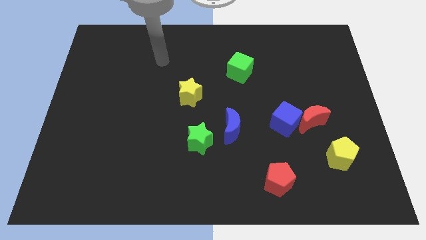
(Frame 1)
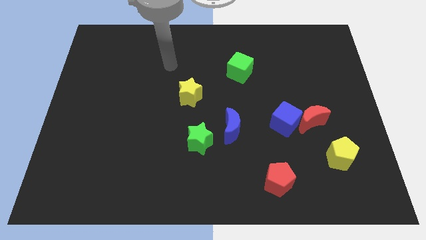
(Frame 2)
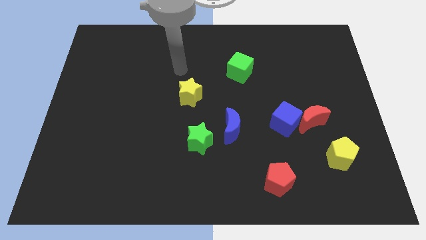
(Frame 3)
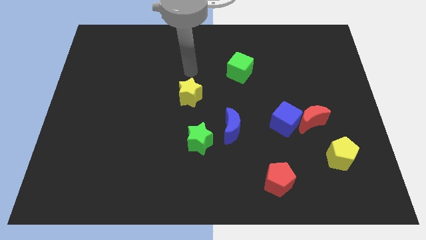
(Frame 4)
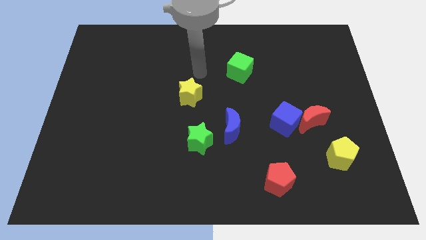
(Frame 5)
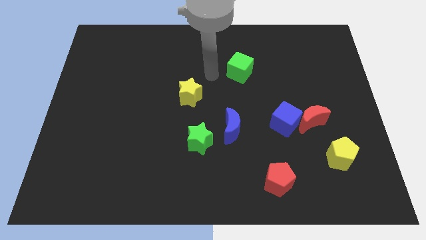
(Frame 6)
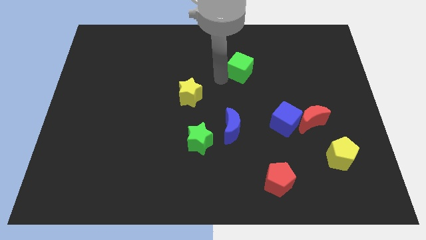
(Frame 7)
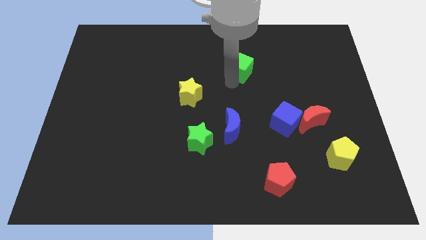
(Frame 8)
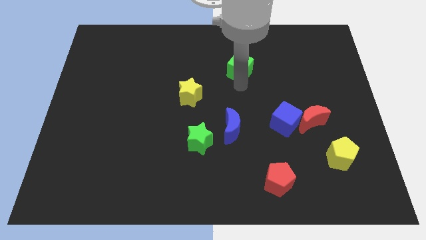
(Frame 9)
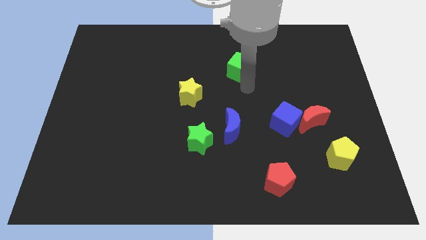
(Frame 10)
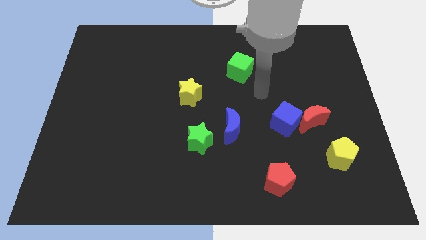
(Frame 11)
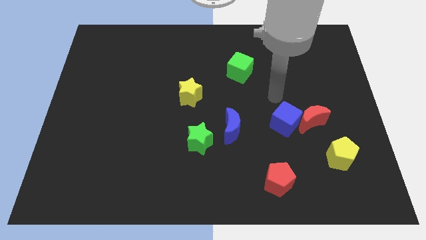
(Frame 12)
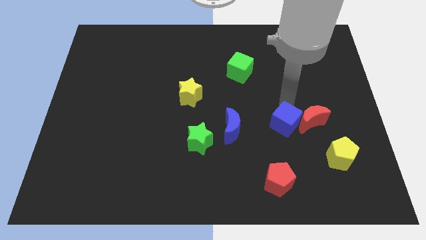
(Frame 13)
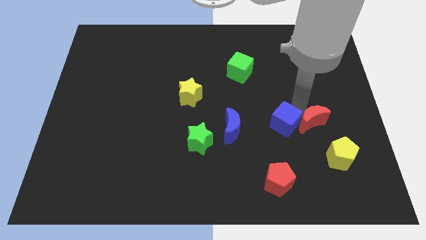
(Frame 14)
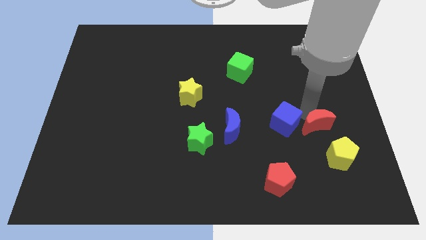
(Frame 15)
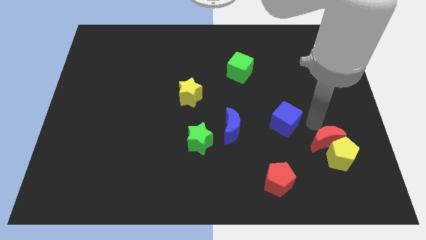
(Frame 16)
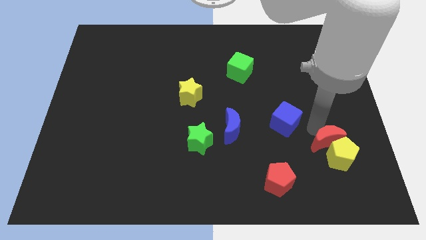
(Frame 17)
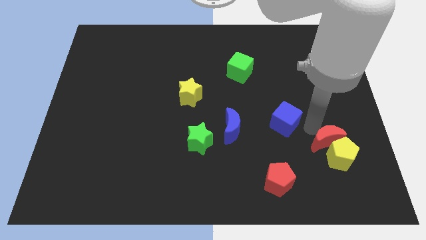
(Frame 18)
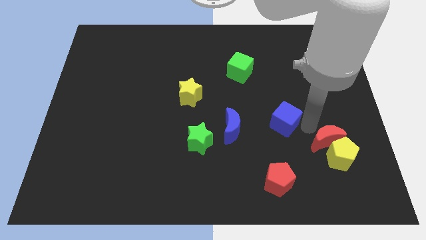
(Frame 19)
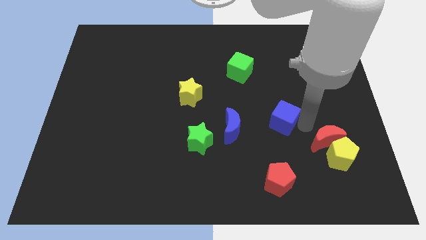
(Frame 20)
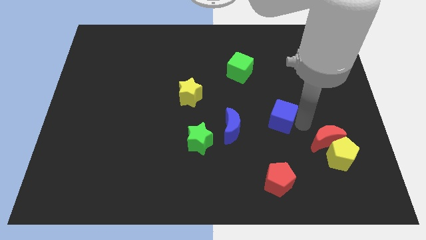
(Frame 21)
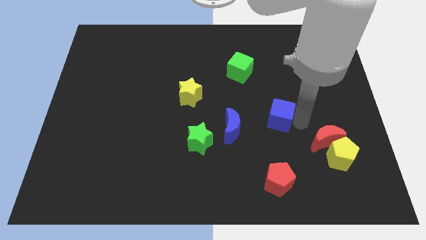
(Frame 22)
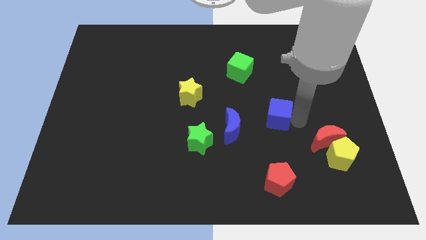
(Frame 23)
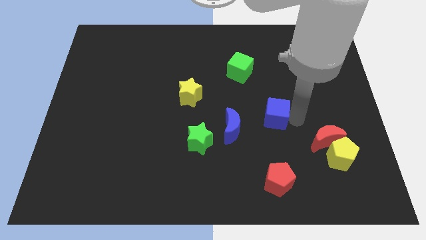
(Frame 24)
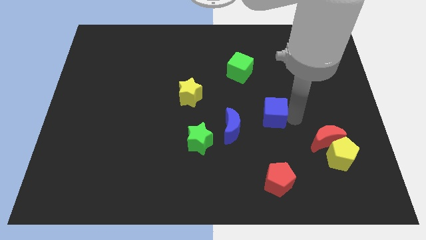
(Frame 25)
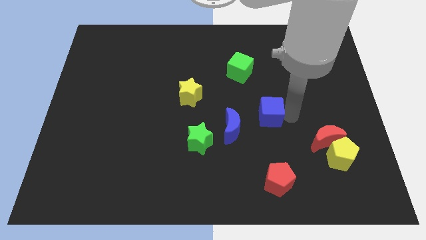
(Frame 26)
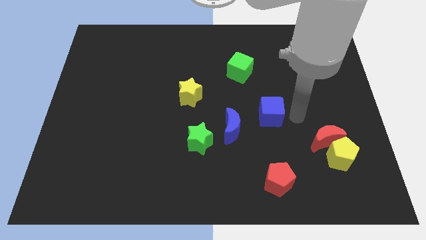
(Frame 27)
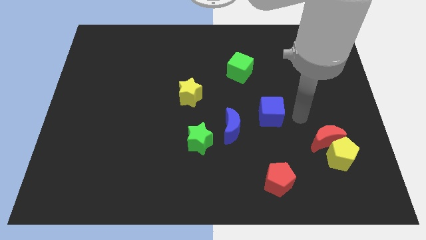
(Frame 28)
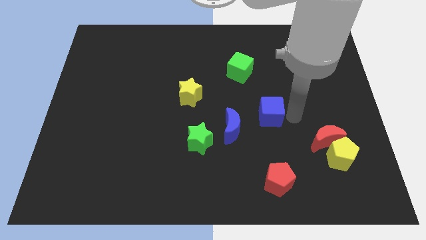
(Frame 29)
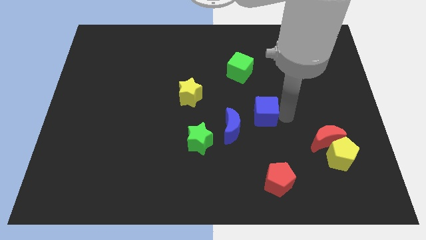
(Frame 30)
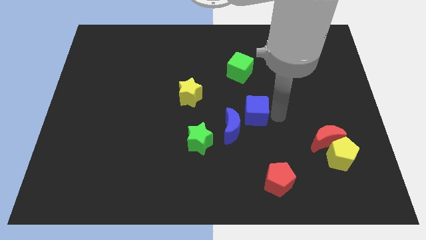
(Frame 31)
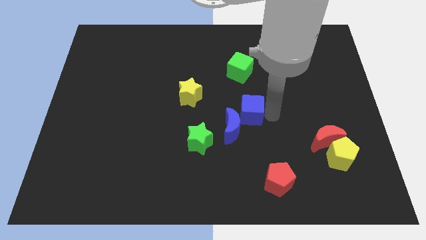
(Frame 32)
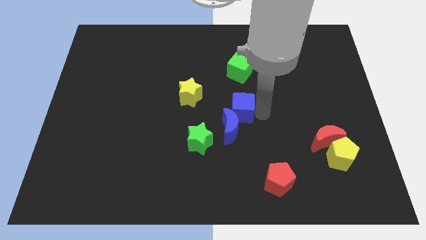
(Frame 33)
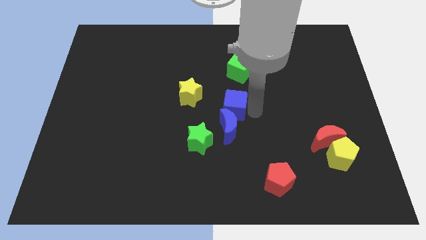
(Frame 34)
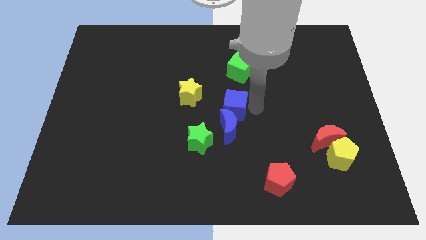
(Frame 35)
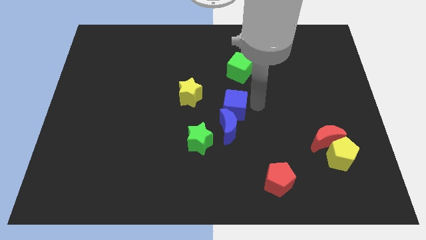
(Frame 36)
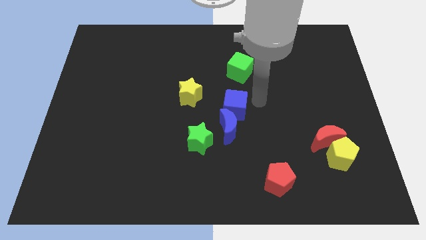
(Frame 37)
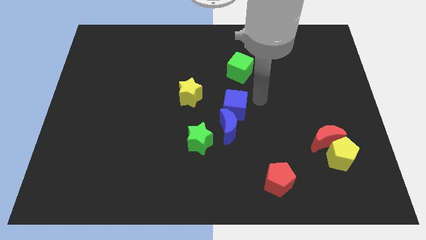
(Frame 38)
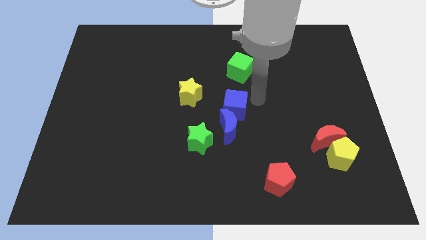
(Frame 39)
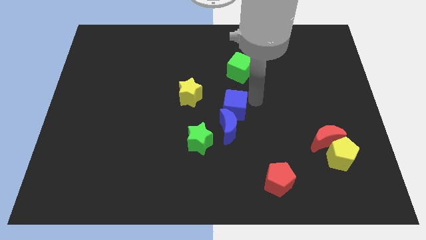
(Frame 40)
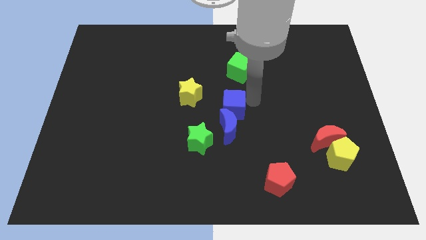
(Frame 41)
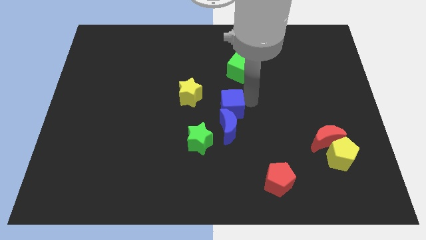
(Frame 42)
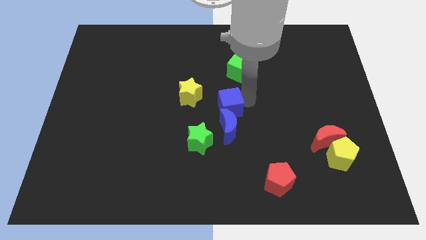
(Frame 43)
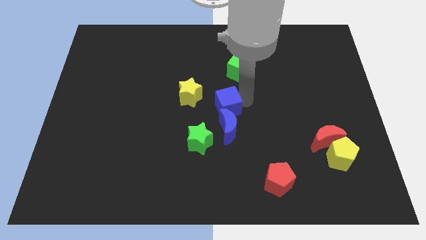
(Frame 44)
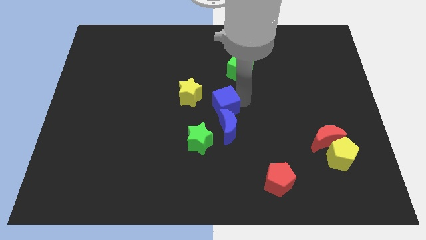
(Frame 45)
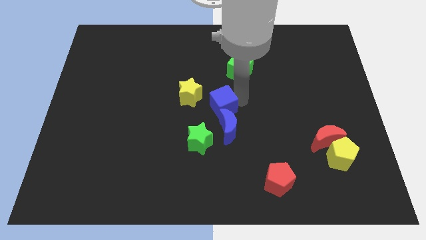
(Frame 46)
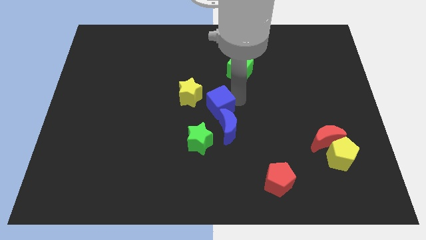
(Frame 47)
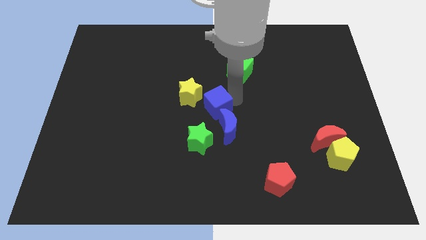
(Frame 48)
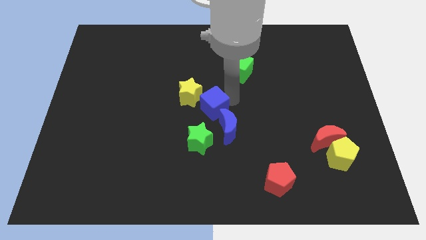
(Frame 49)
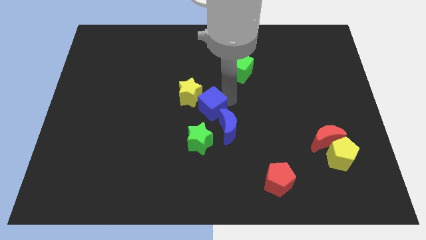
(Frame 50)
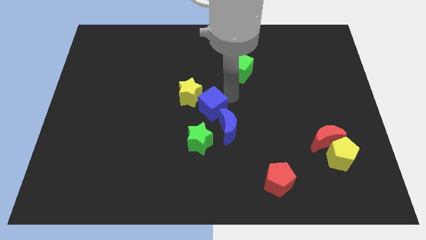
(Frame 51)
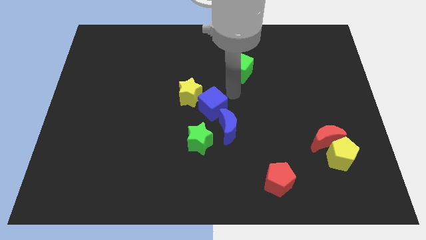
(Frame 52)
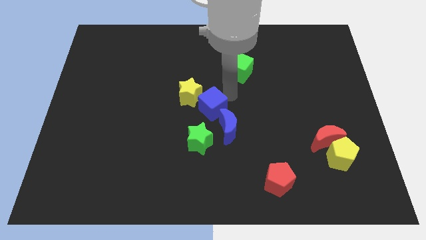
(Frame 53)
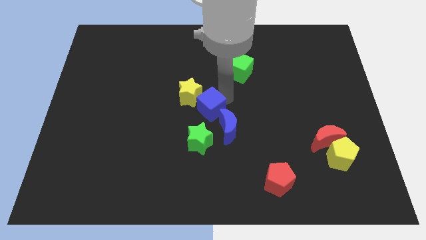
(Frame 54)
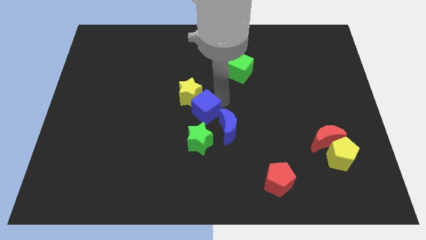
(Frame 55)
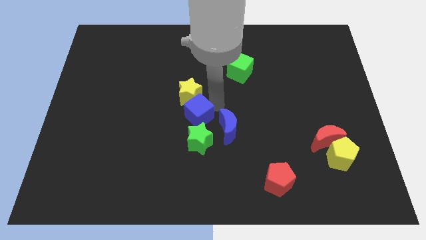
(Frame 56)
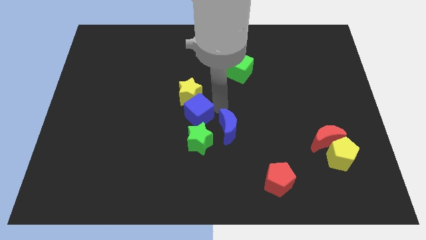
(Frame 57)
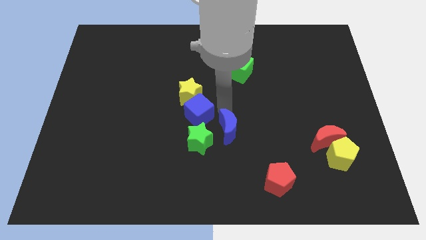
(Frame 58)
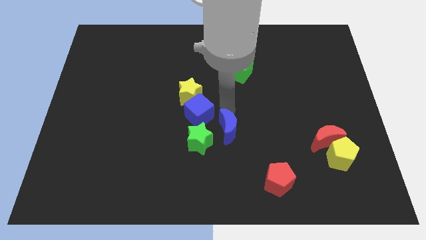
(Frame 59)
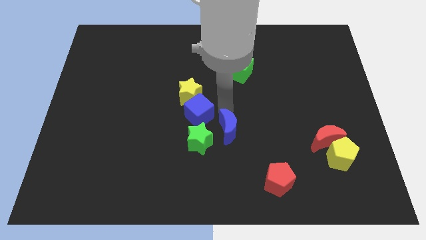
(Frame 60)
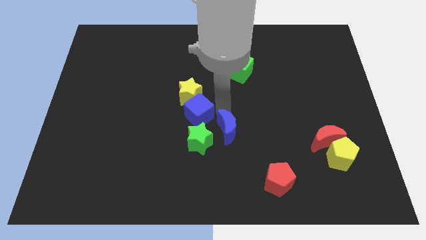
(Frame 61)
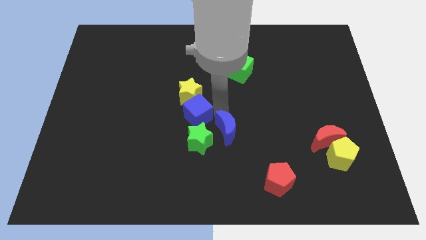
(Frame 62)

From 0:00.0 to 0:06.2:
push the blue cube to the left

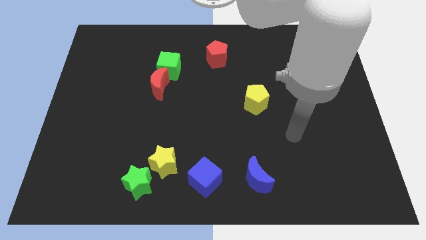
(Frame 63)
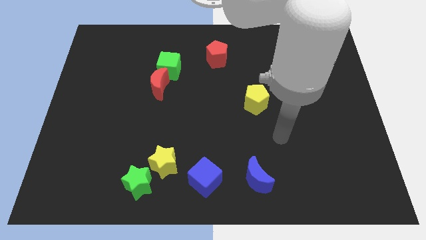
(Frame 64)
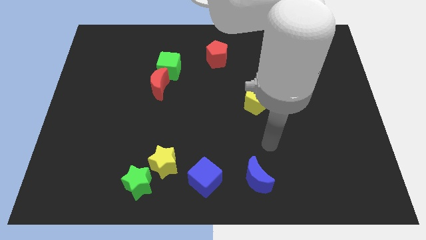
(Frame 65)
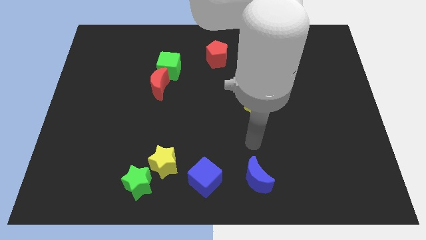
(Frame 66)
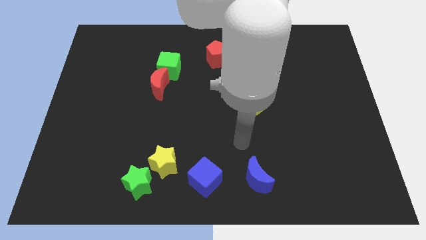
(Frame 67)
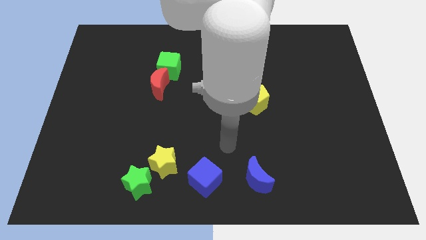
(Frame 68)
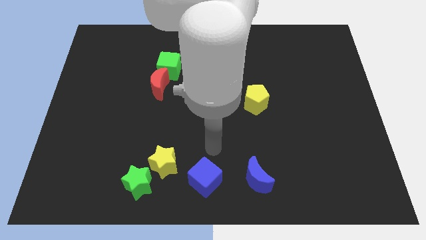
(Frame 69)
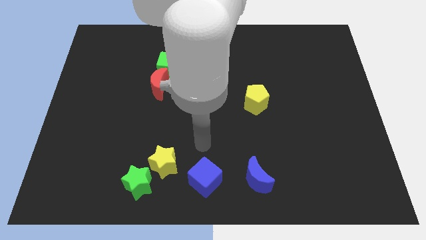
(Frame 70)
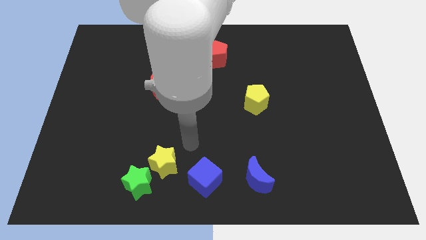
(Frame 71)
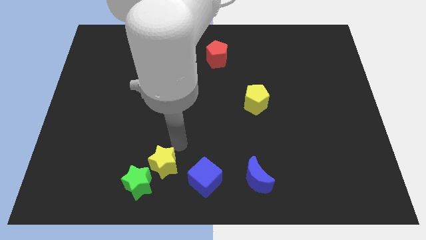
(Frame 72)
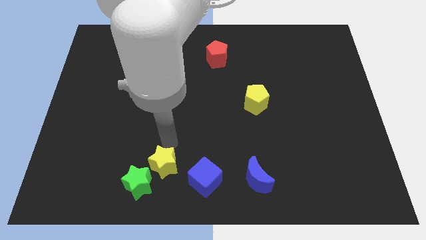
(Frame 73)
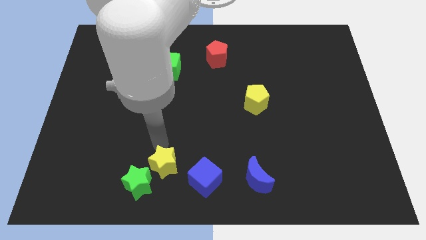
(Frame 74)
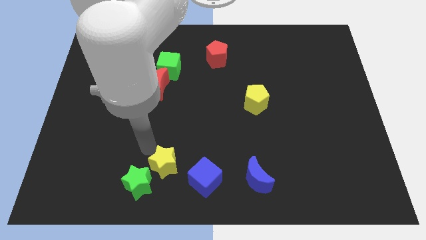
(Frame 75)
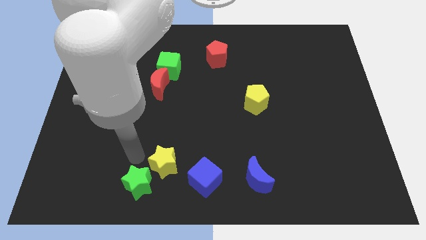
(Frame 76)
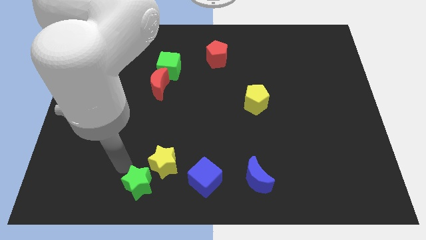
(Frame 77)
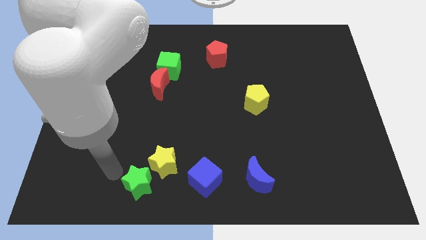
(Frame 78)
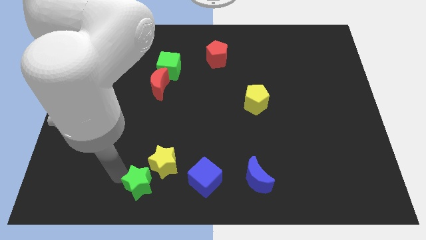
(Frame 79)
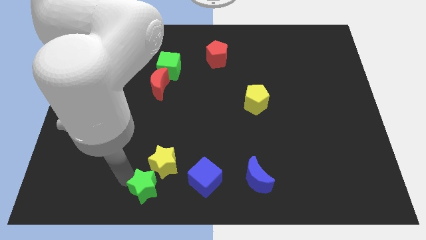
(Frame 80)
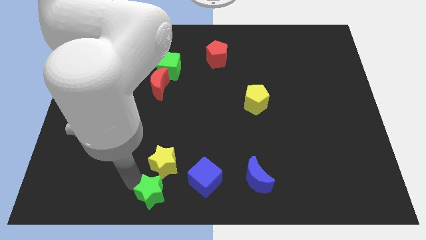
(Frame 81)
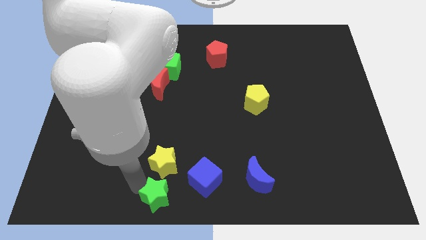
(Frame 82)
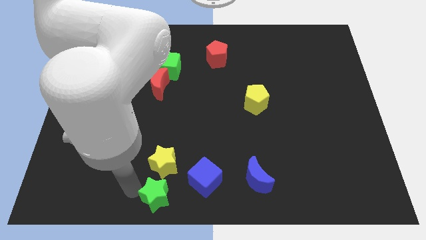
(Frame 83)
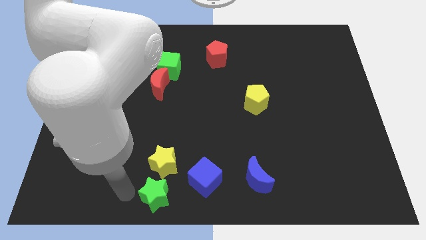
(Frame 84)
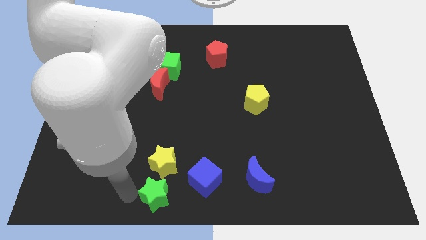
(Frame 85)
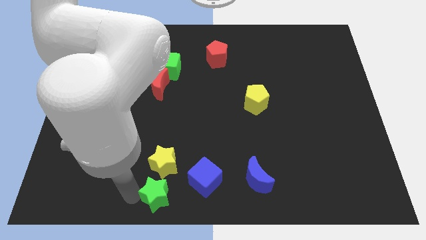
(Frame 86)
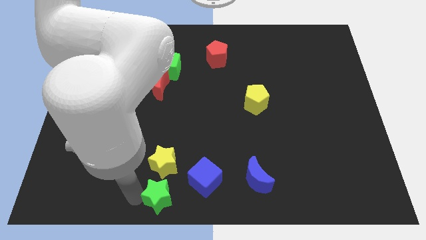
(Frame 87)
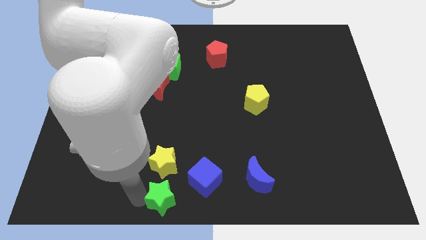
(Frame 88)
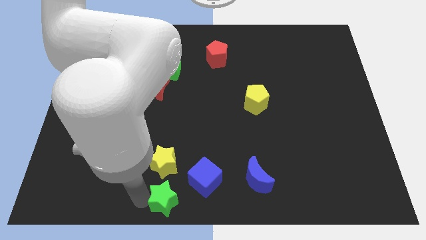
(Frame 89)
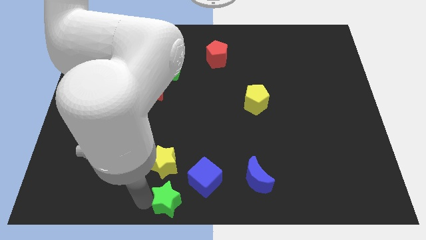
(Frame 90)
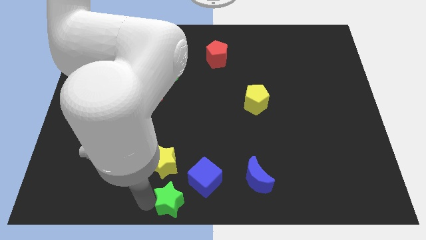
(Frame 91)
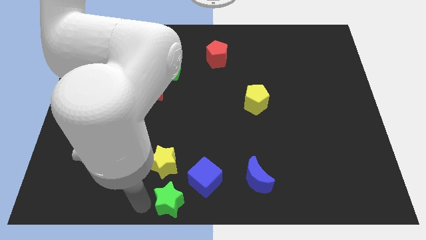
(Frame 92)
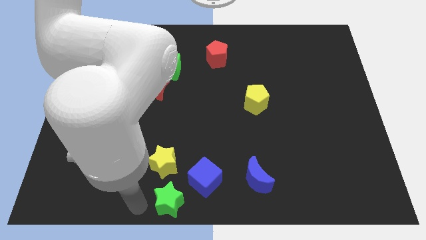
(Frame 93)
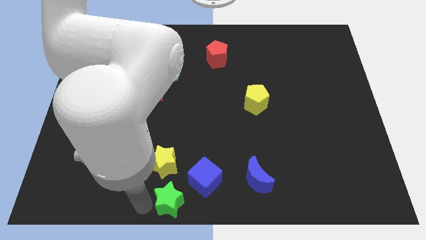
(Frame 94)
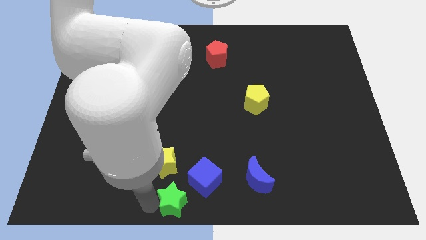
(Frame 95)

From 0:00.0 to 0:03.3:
slide the green star to the right a little
